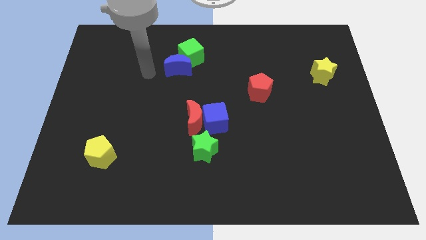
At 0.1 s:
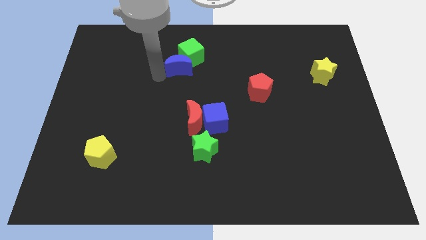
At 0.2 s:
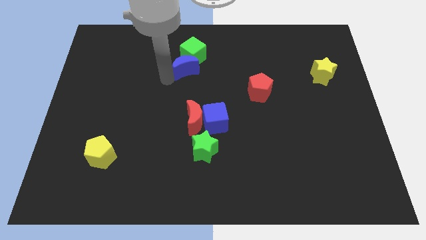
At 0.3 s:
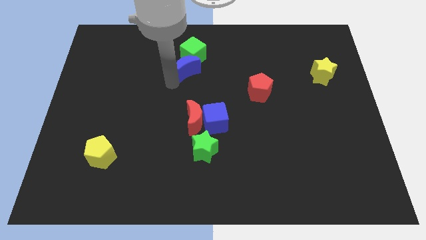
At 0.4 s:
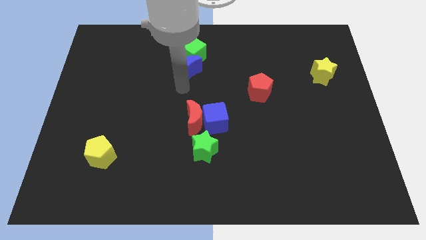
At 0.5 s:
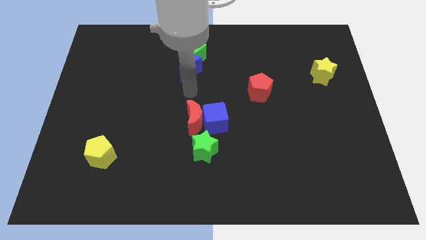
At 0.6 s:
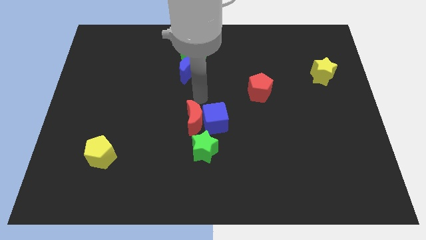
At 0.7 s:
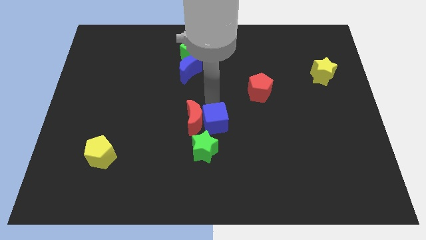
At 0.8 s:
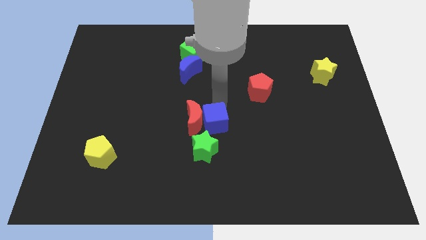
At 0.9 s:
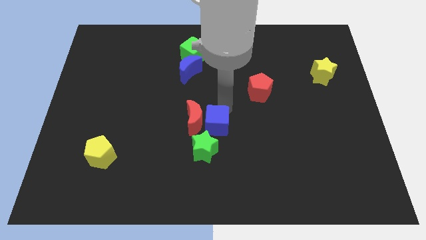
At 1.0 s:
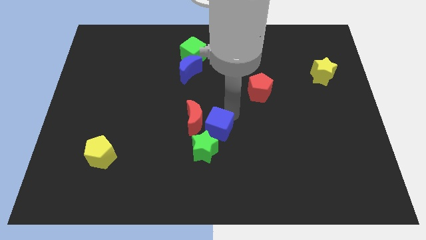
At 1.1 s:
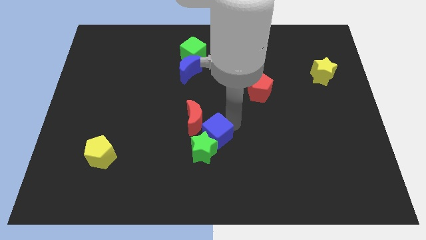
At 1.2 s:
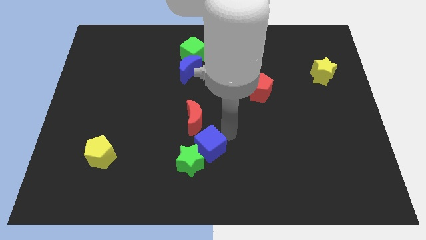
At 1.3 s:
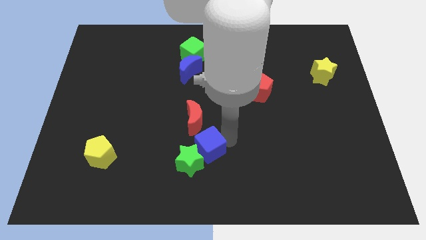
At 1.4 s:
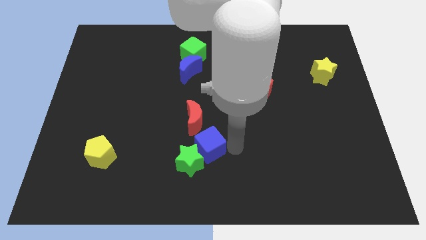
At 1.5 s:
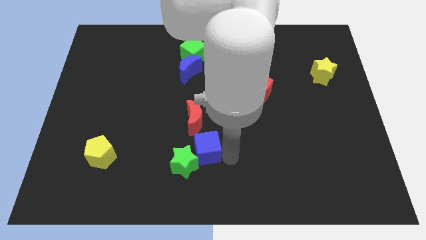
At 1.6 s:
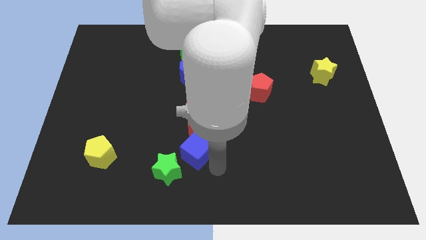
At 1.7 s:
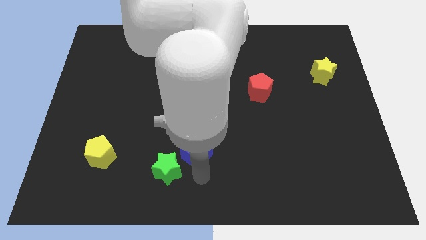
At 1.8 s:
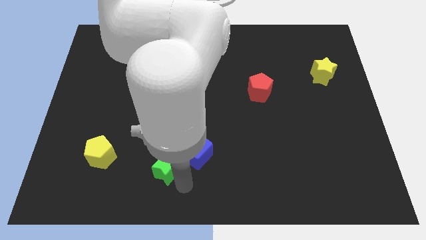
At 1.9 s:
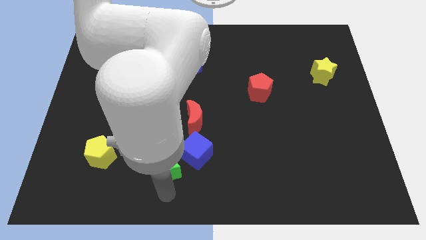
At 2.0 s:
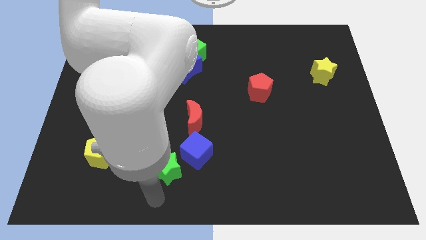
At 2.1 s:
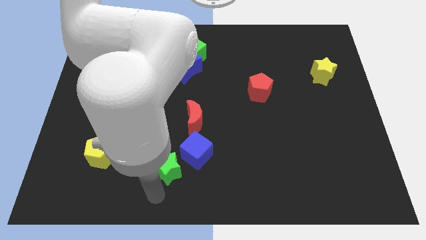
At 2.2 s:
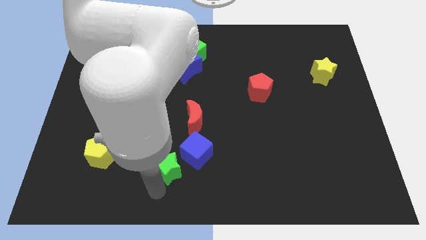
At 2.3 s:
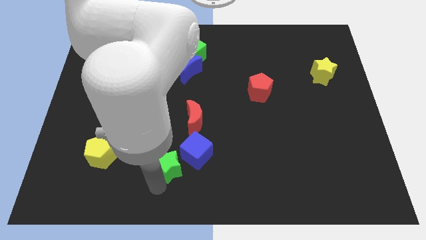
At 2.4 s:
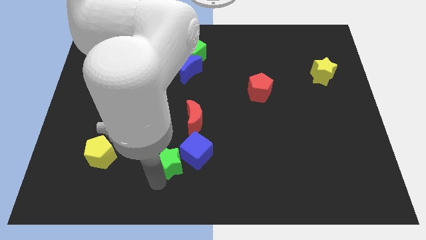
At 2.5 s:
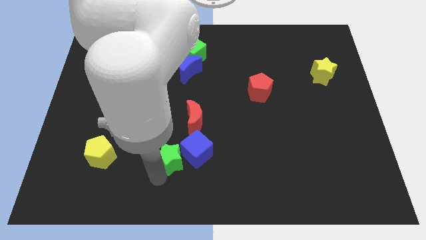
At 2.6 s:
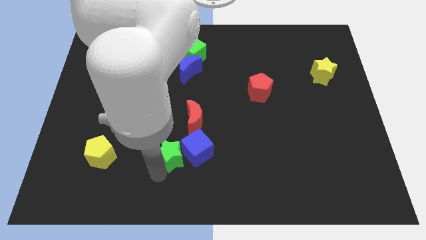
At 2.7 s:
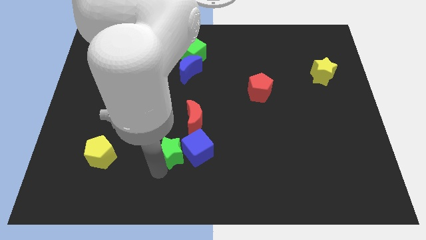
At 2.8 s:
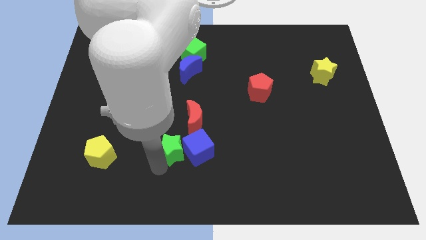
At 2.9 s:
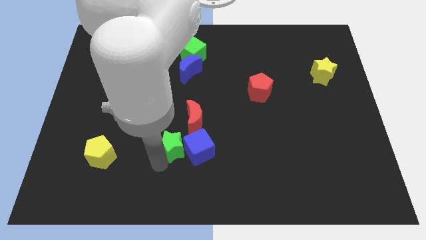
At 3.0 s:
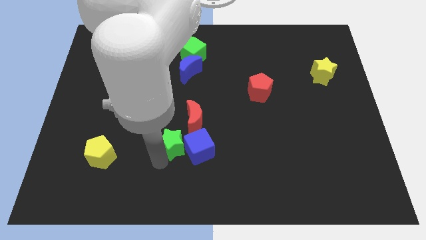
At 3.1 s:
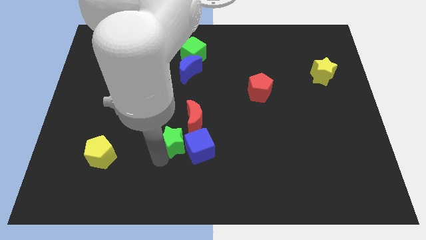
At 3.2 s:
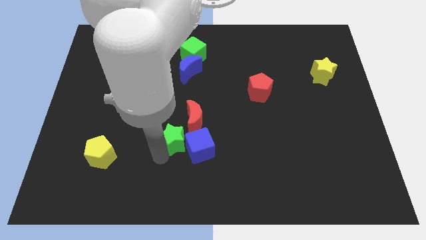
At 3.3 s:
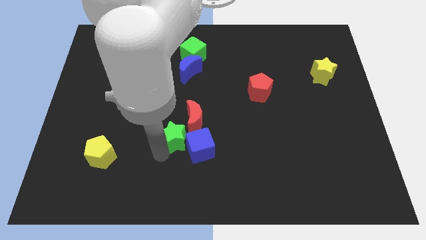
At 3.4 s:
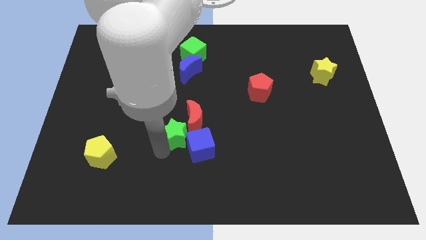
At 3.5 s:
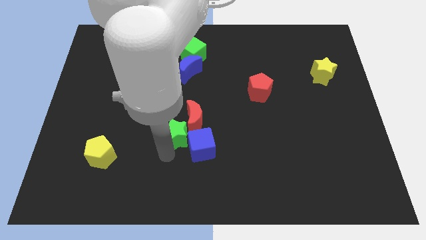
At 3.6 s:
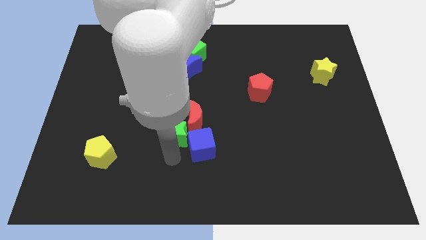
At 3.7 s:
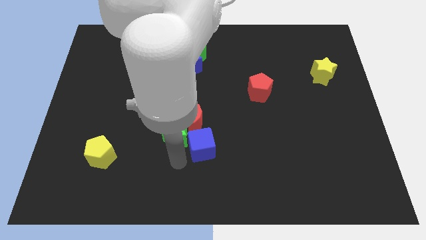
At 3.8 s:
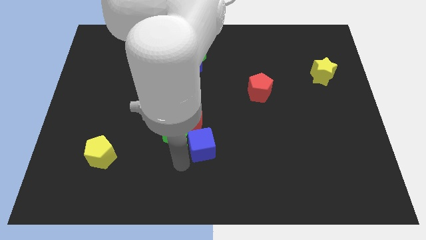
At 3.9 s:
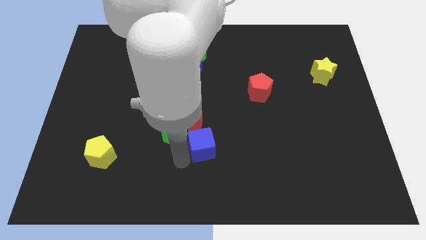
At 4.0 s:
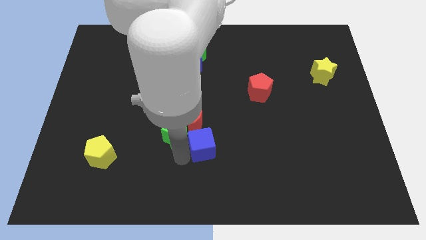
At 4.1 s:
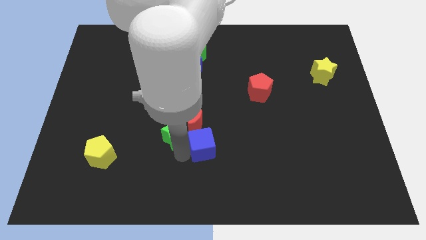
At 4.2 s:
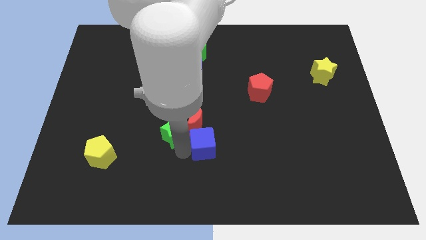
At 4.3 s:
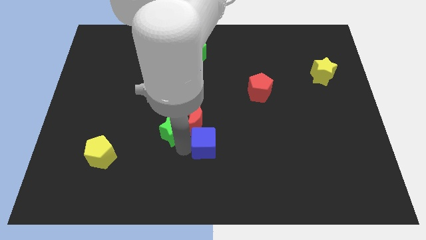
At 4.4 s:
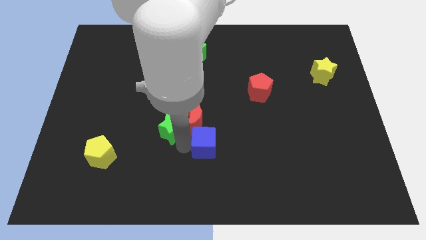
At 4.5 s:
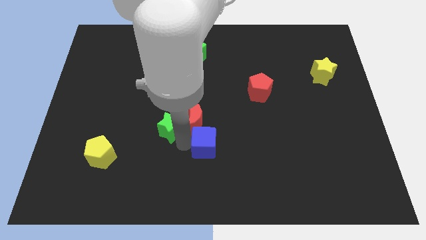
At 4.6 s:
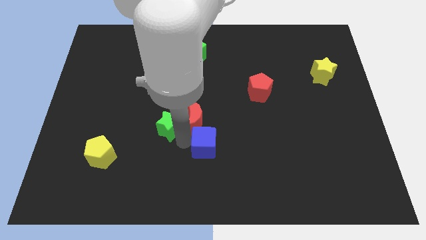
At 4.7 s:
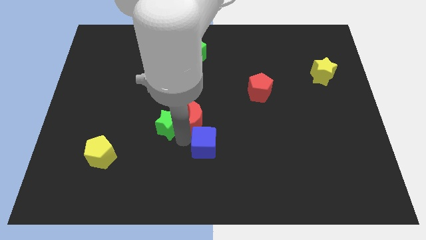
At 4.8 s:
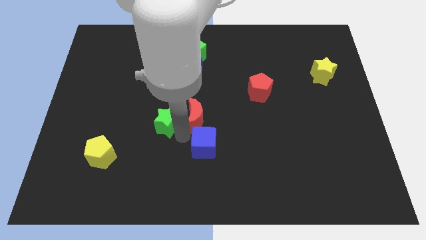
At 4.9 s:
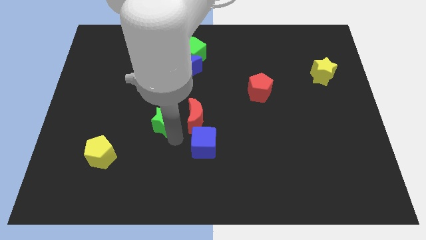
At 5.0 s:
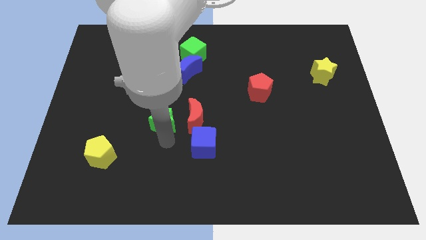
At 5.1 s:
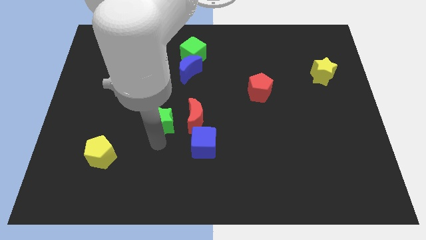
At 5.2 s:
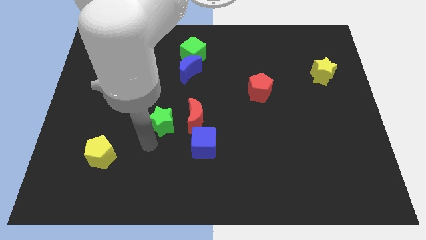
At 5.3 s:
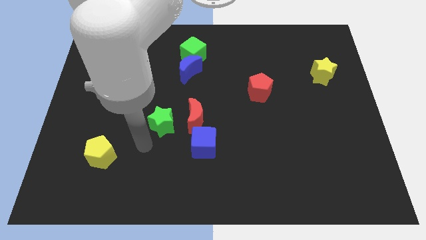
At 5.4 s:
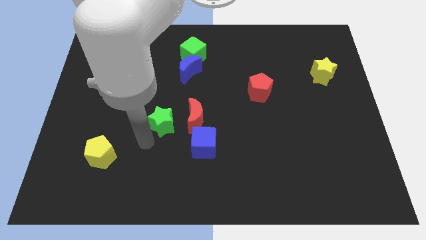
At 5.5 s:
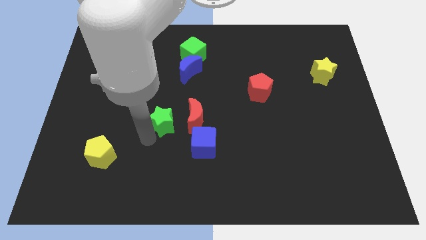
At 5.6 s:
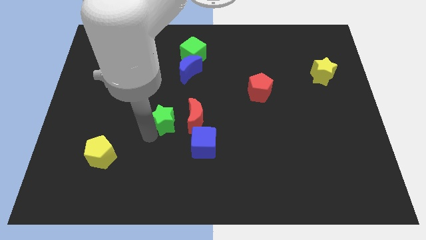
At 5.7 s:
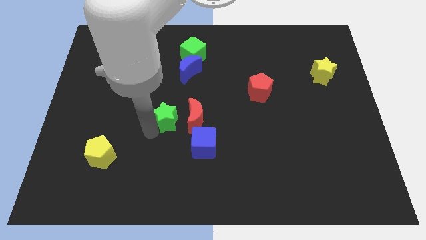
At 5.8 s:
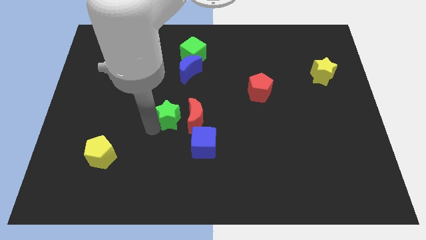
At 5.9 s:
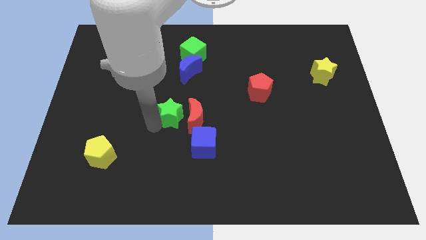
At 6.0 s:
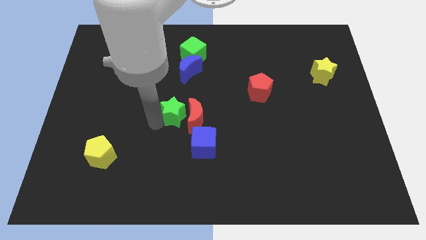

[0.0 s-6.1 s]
slide the green star up a little

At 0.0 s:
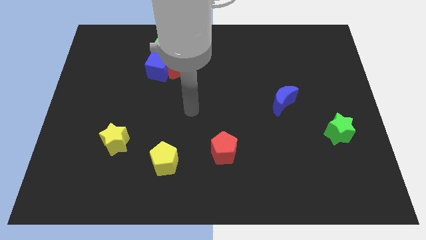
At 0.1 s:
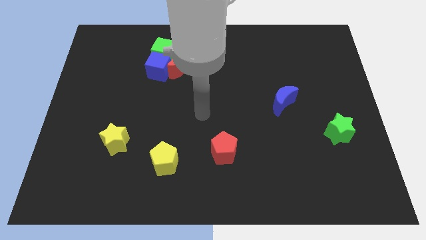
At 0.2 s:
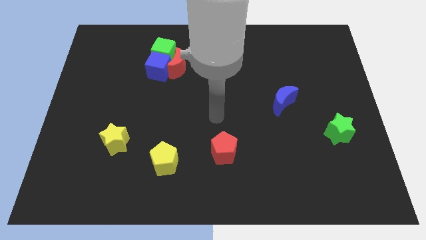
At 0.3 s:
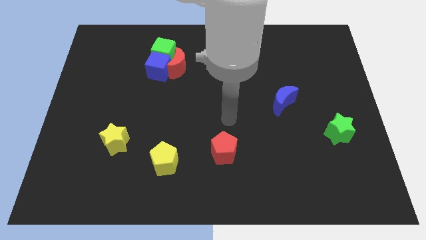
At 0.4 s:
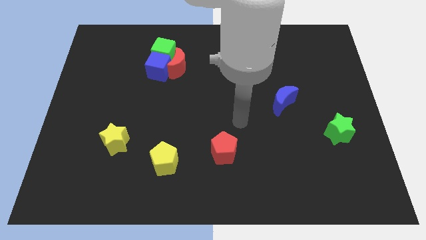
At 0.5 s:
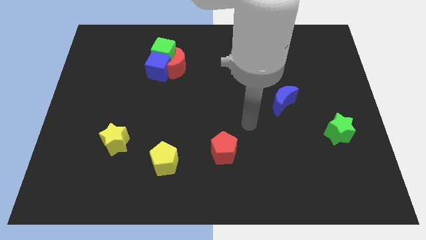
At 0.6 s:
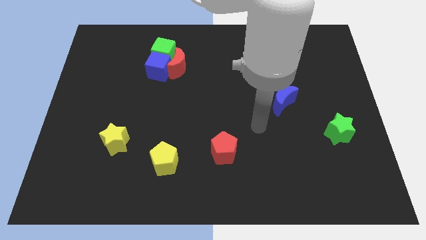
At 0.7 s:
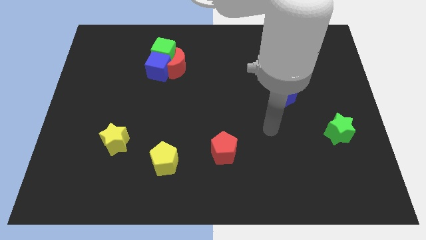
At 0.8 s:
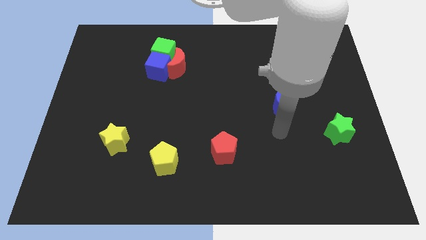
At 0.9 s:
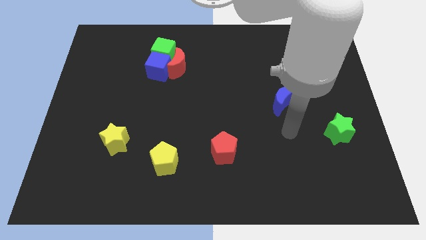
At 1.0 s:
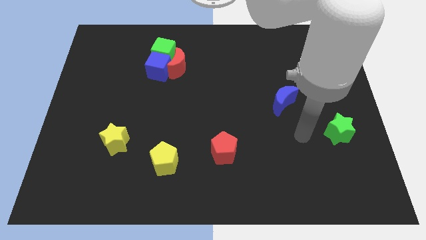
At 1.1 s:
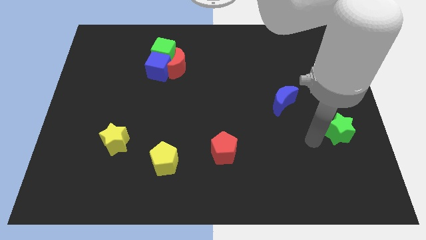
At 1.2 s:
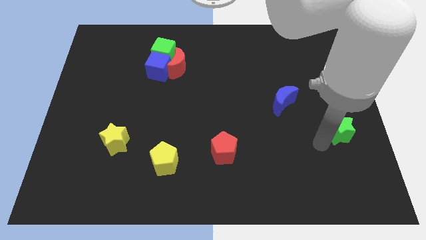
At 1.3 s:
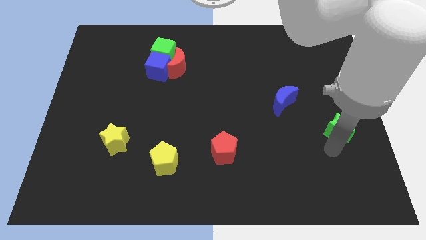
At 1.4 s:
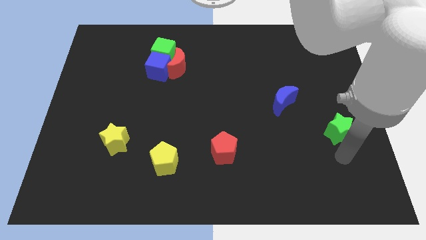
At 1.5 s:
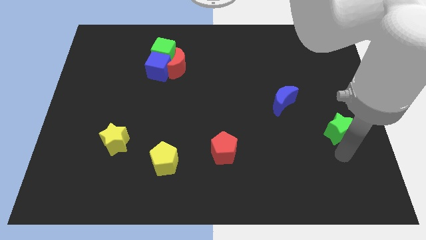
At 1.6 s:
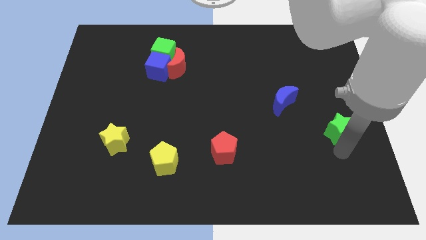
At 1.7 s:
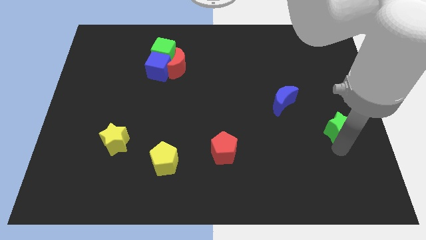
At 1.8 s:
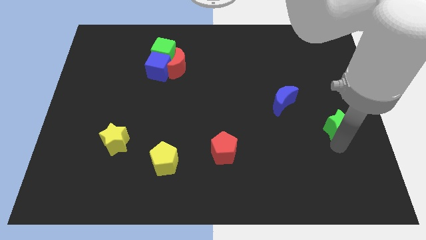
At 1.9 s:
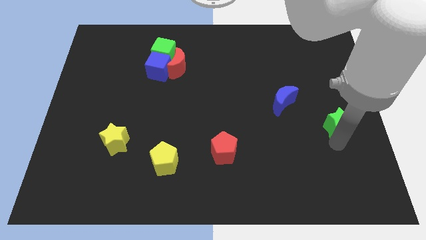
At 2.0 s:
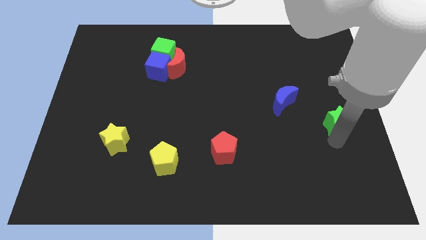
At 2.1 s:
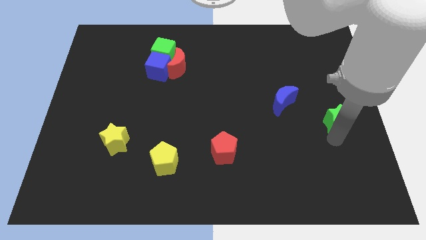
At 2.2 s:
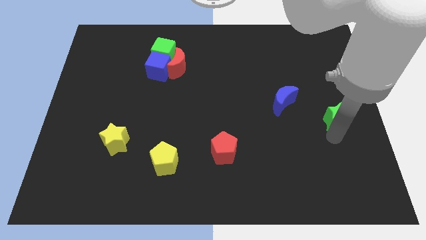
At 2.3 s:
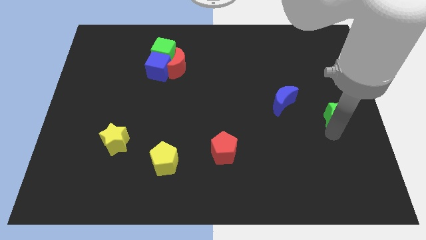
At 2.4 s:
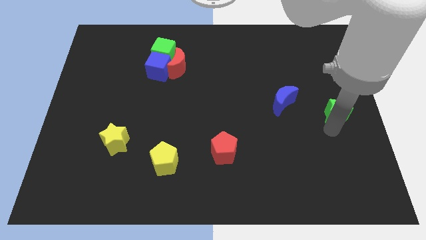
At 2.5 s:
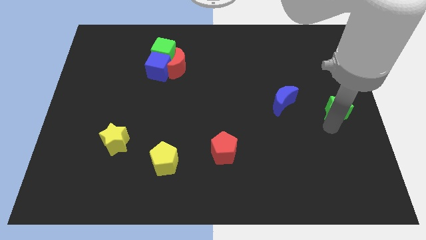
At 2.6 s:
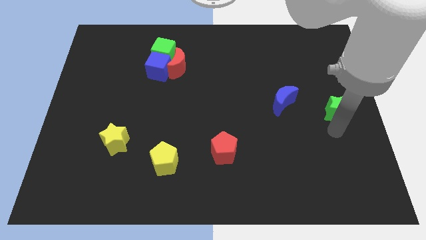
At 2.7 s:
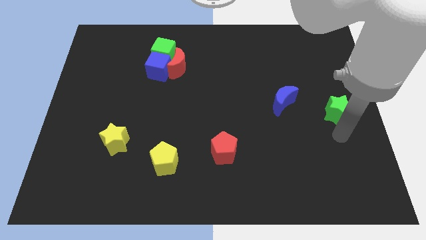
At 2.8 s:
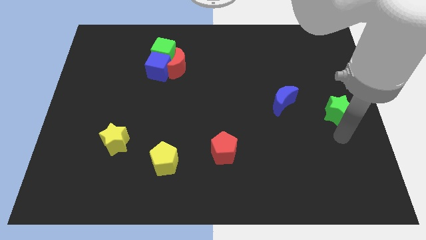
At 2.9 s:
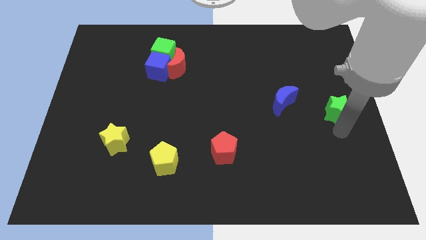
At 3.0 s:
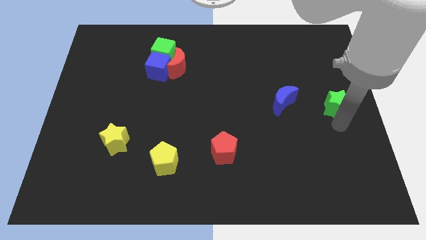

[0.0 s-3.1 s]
slide the green star slightly up
